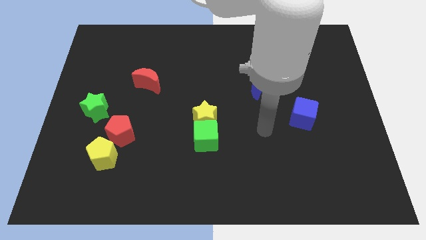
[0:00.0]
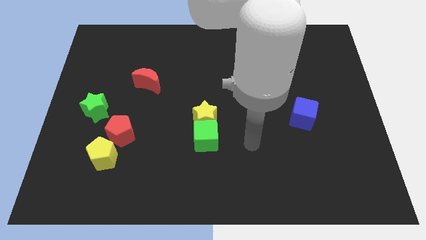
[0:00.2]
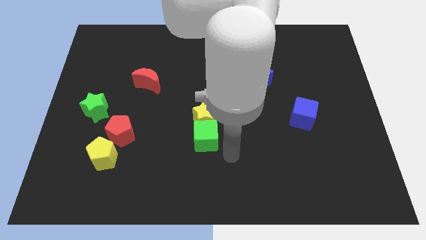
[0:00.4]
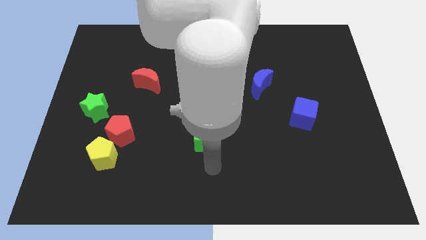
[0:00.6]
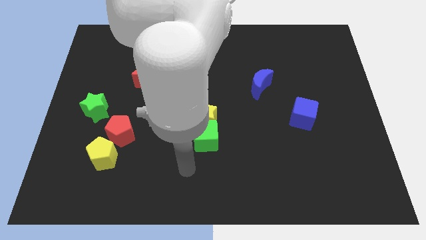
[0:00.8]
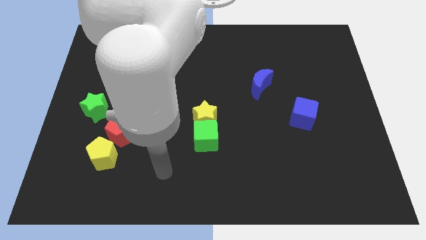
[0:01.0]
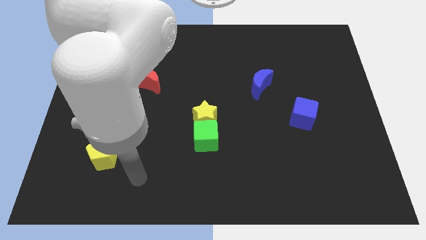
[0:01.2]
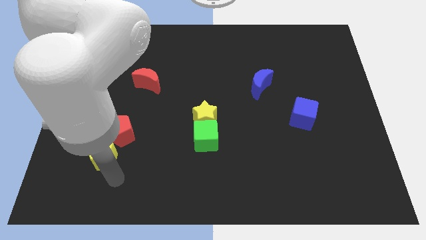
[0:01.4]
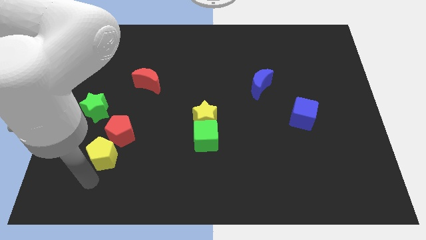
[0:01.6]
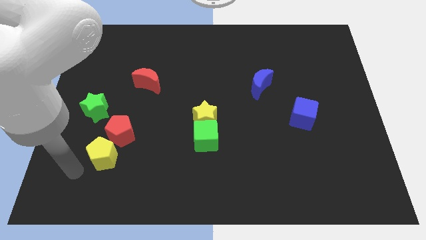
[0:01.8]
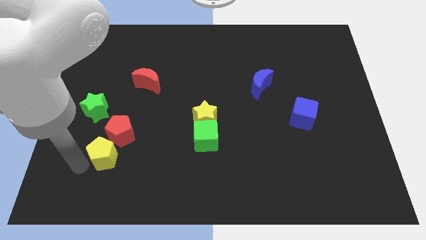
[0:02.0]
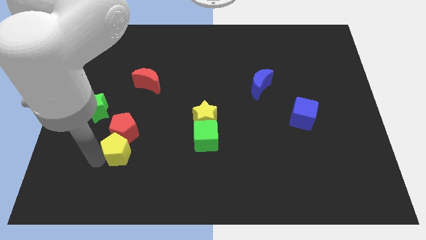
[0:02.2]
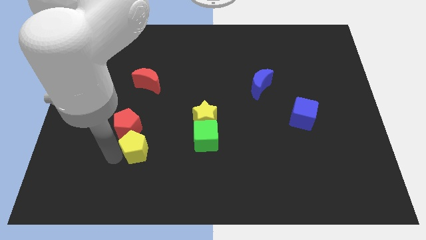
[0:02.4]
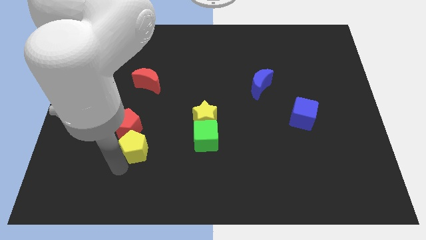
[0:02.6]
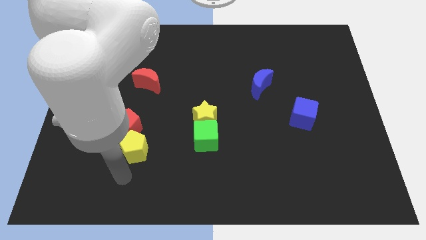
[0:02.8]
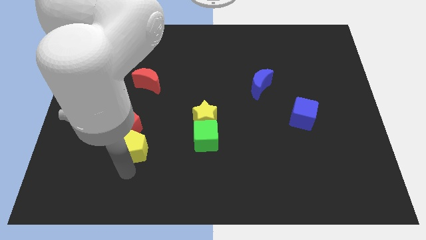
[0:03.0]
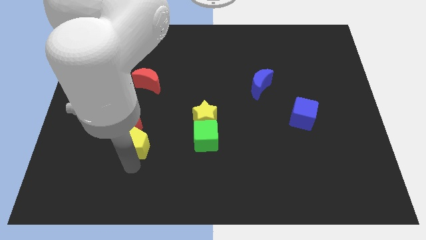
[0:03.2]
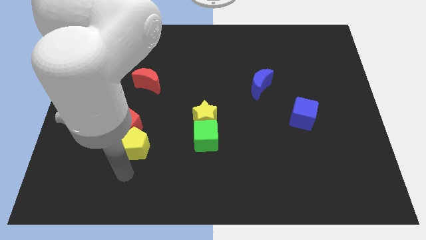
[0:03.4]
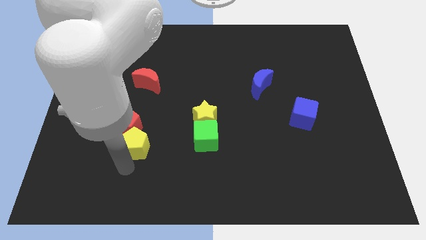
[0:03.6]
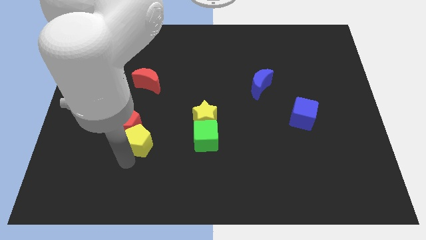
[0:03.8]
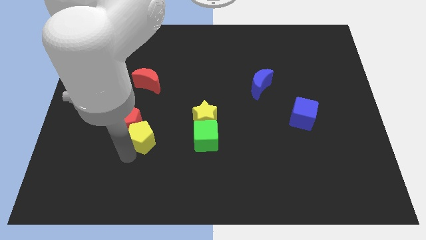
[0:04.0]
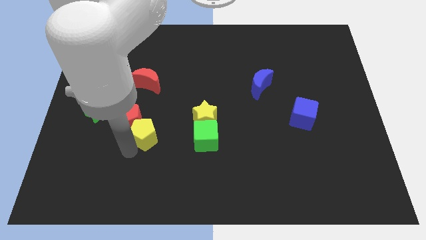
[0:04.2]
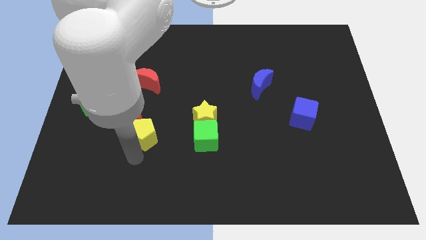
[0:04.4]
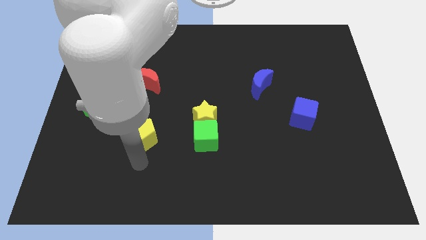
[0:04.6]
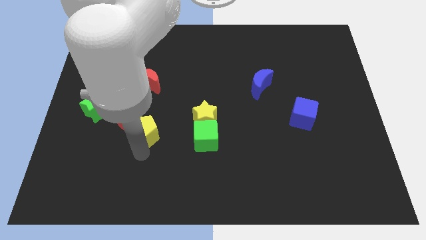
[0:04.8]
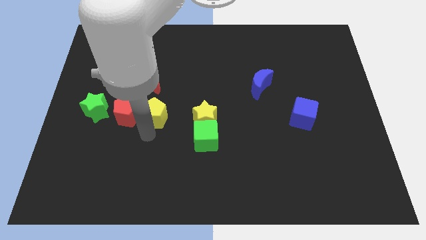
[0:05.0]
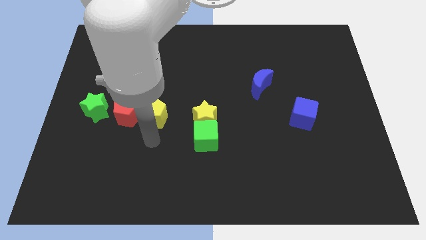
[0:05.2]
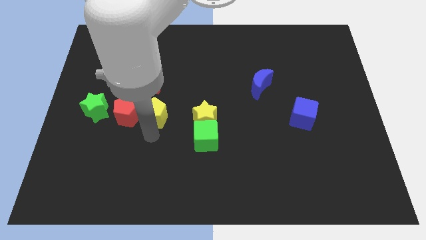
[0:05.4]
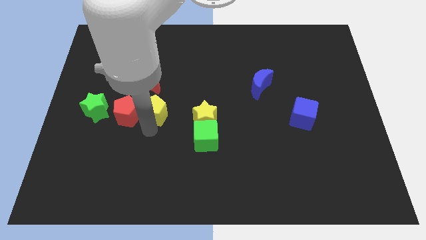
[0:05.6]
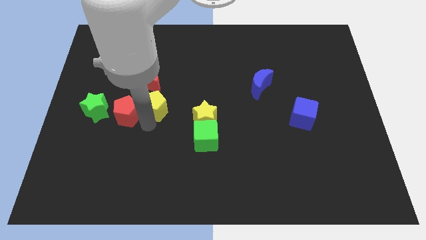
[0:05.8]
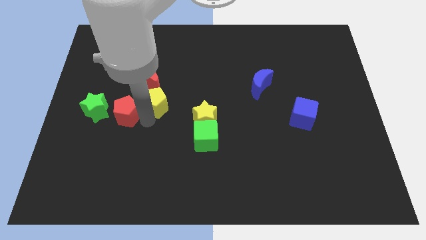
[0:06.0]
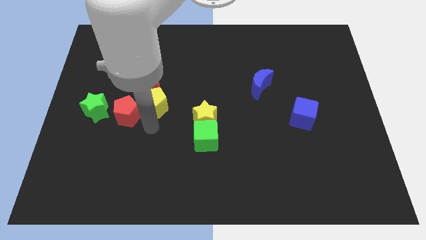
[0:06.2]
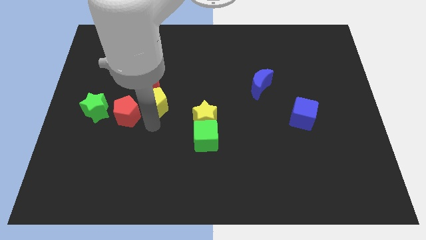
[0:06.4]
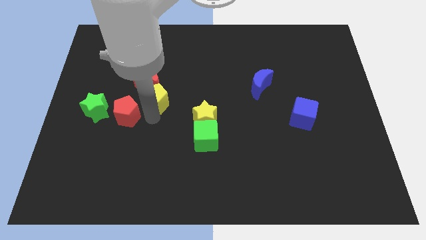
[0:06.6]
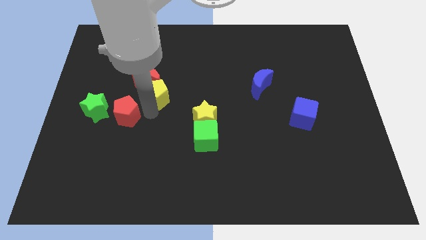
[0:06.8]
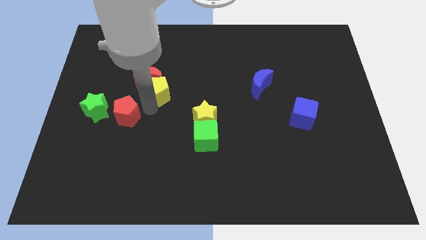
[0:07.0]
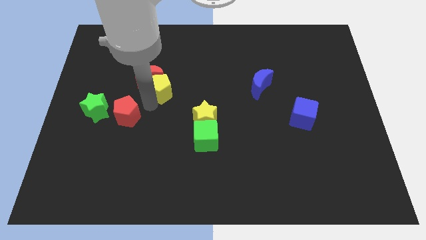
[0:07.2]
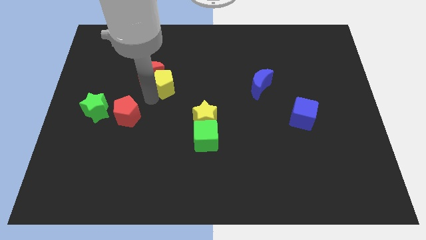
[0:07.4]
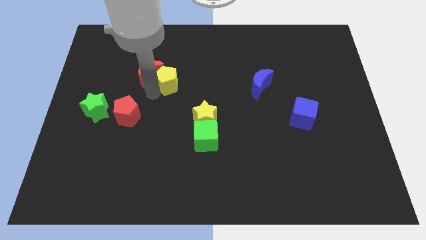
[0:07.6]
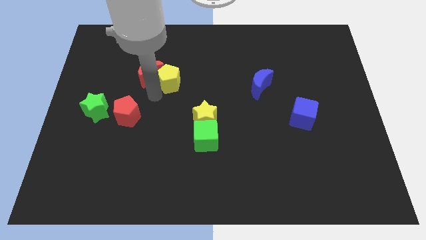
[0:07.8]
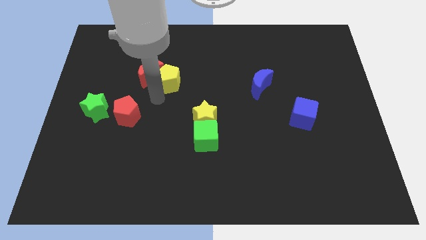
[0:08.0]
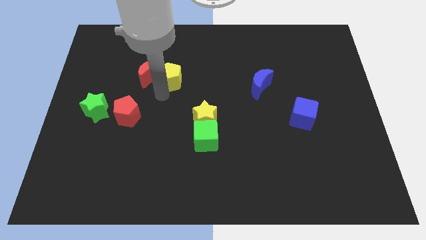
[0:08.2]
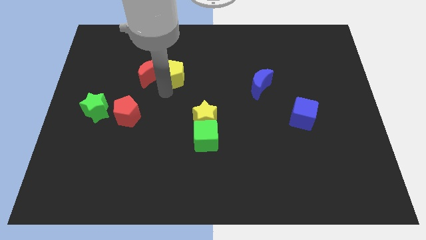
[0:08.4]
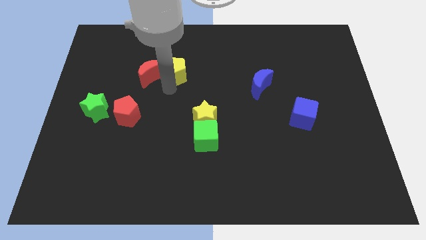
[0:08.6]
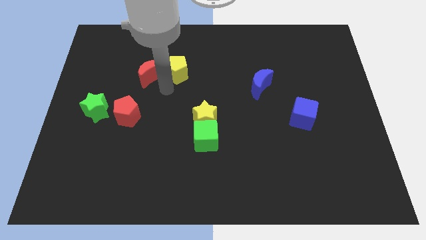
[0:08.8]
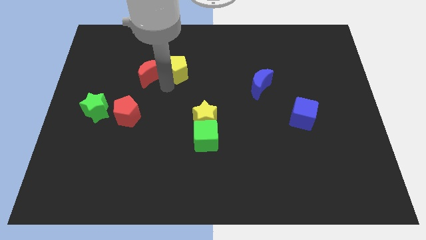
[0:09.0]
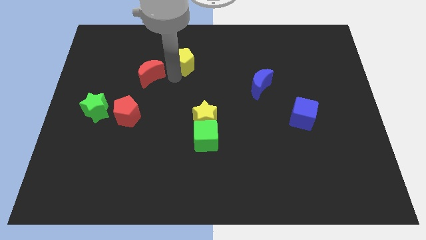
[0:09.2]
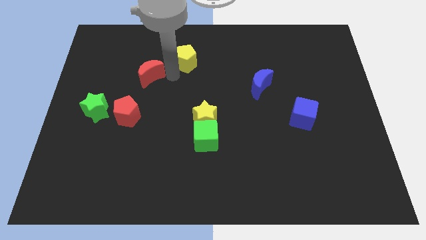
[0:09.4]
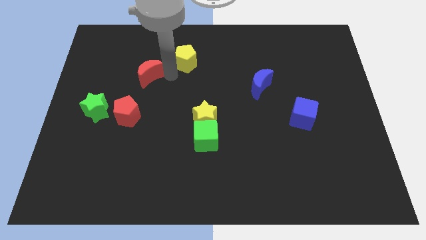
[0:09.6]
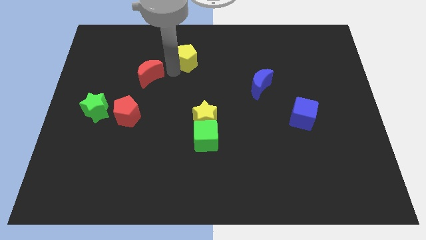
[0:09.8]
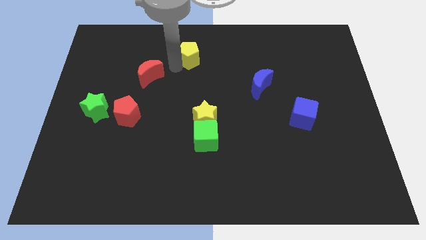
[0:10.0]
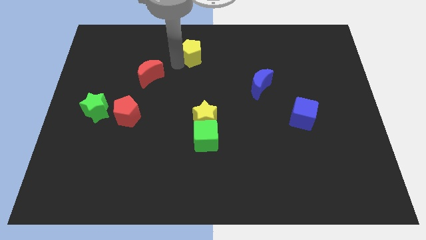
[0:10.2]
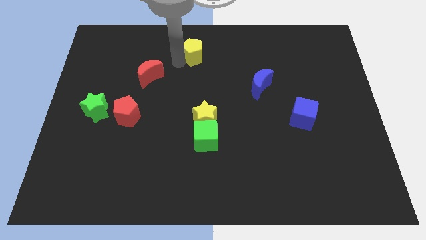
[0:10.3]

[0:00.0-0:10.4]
push the yellow pentagon to the towards your base

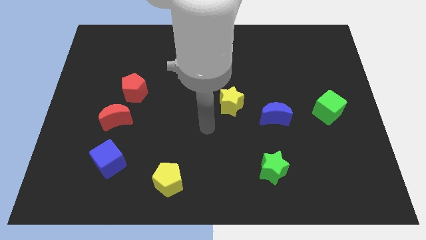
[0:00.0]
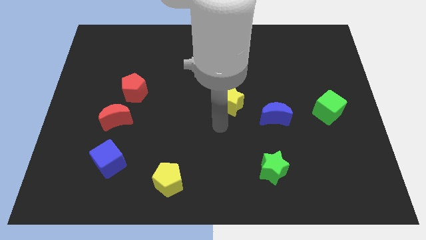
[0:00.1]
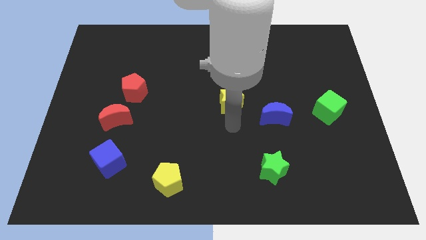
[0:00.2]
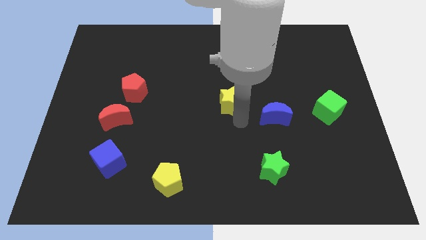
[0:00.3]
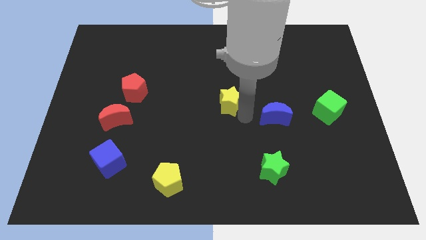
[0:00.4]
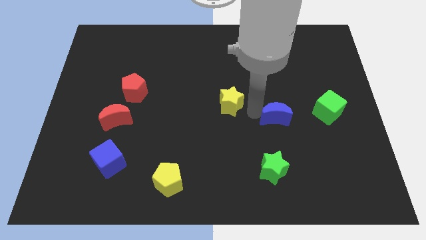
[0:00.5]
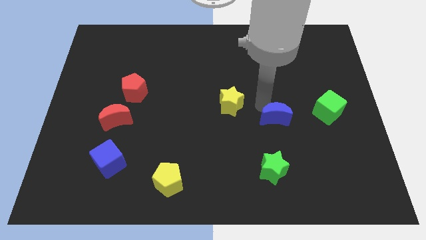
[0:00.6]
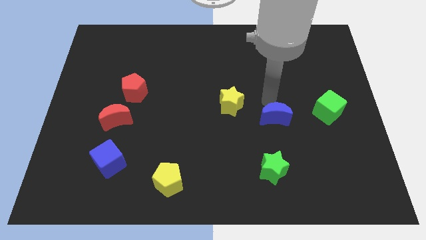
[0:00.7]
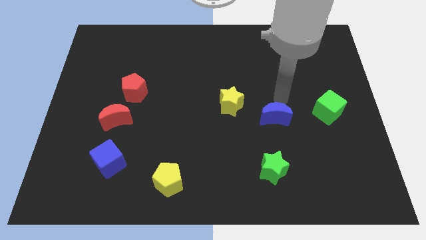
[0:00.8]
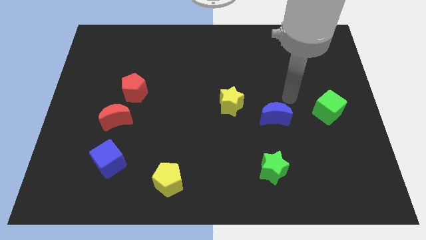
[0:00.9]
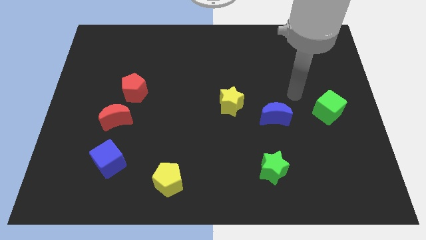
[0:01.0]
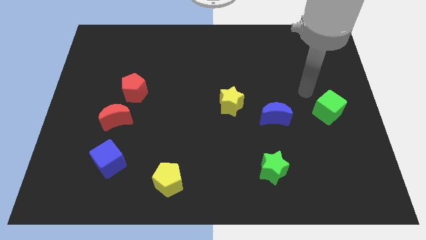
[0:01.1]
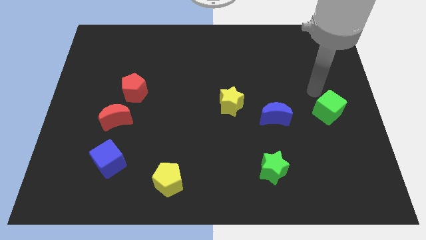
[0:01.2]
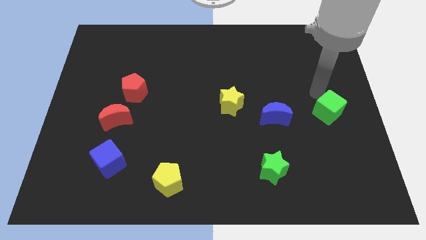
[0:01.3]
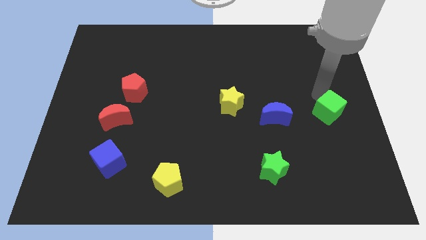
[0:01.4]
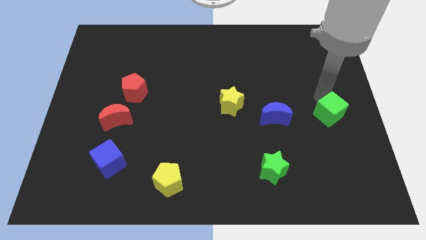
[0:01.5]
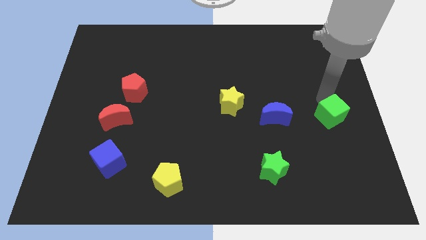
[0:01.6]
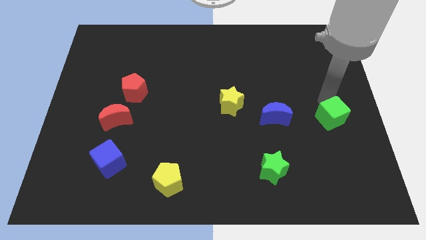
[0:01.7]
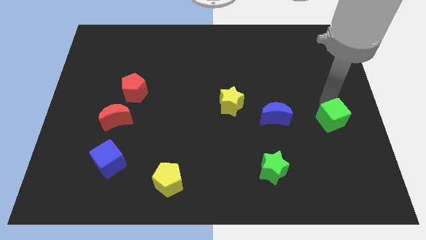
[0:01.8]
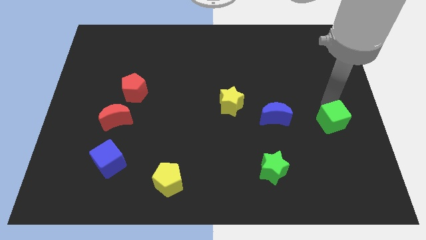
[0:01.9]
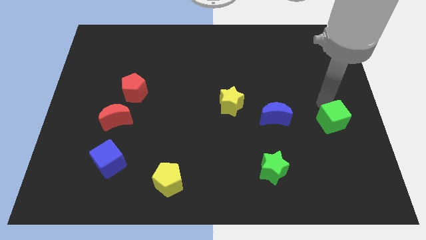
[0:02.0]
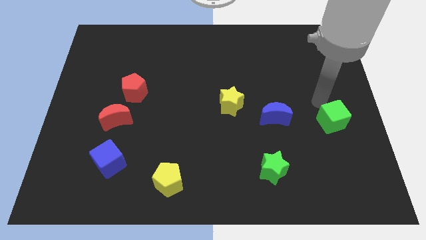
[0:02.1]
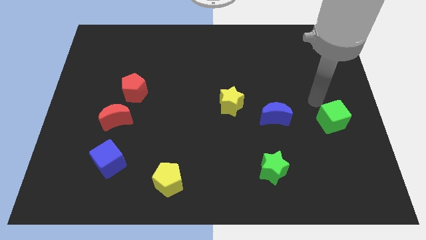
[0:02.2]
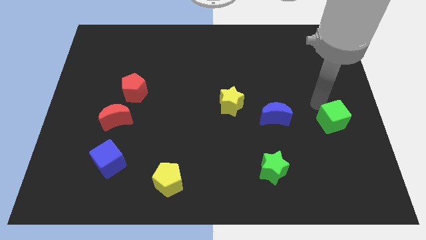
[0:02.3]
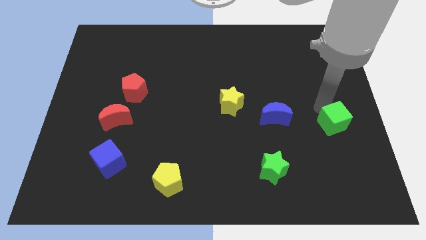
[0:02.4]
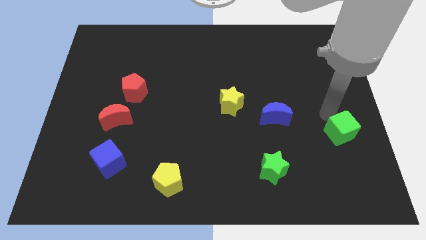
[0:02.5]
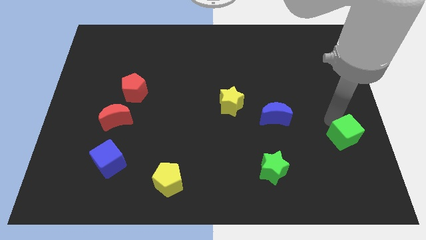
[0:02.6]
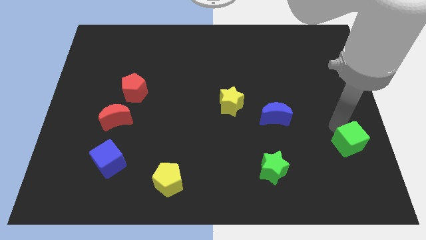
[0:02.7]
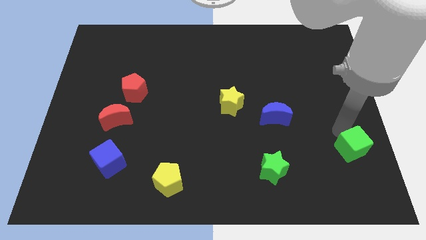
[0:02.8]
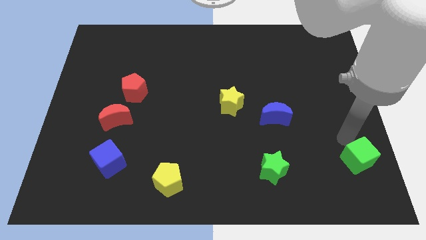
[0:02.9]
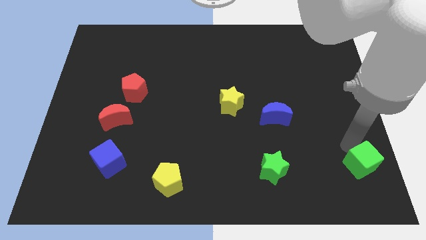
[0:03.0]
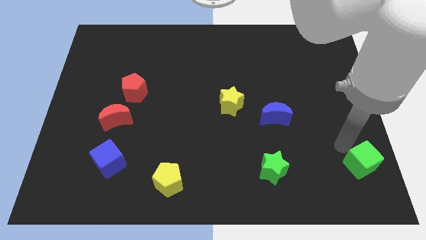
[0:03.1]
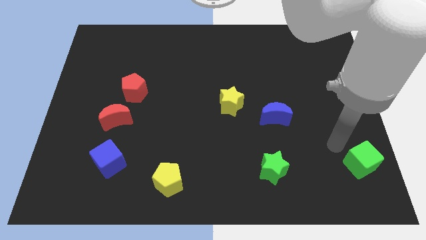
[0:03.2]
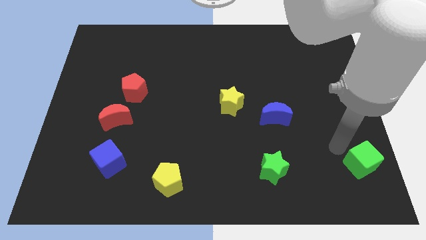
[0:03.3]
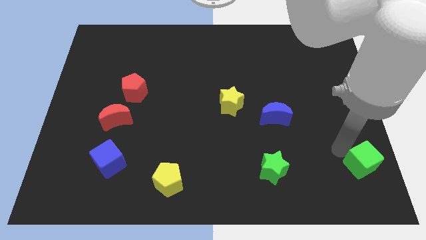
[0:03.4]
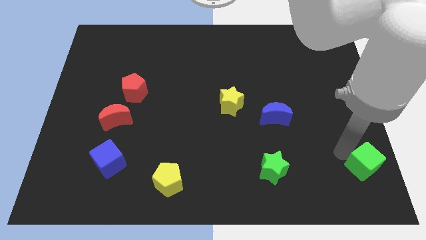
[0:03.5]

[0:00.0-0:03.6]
move the green cube to the bottom right
